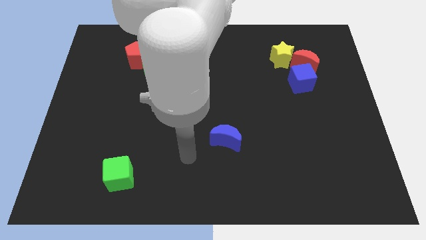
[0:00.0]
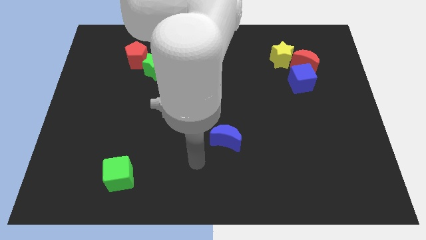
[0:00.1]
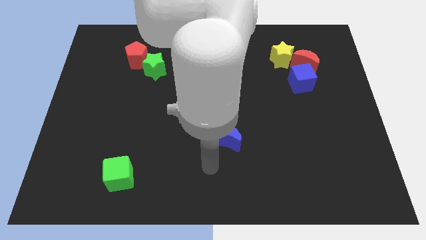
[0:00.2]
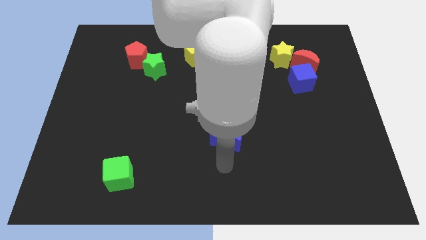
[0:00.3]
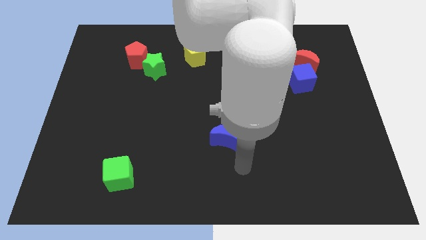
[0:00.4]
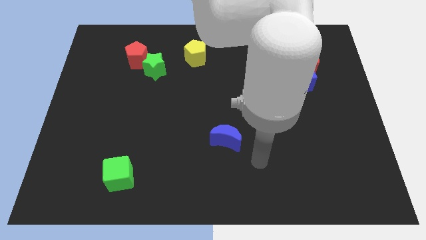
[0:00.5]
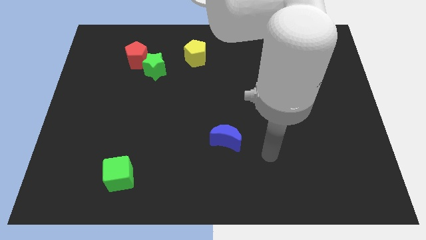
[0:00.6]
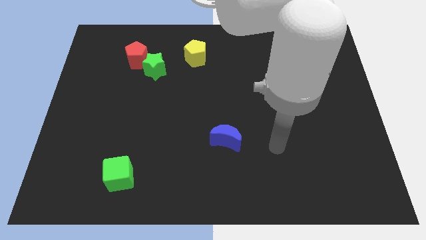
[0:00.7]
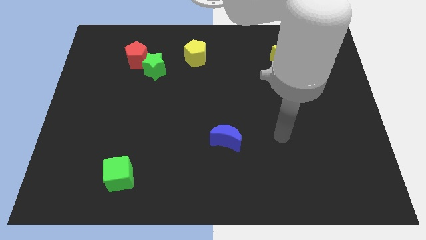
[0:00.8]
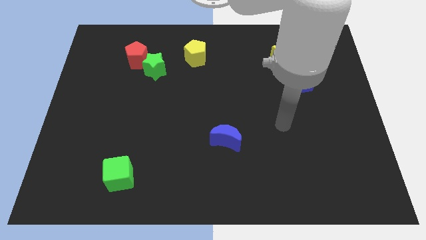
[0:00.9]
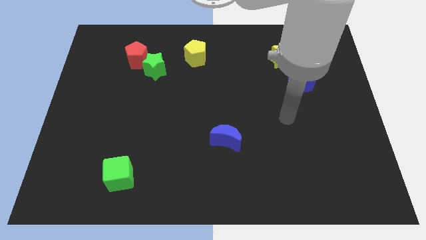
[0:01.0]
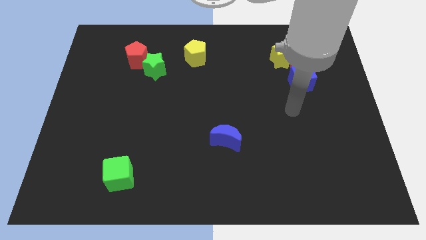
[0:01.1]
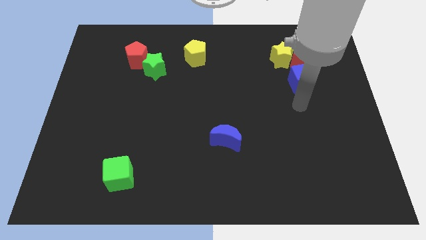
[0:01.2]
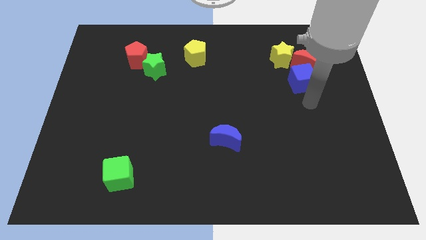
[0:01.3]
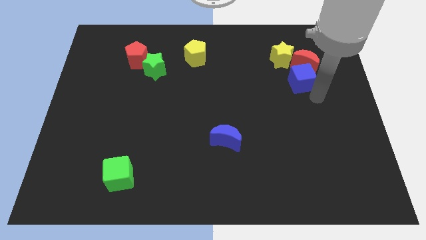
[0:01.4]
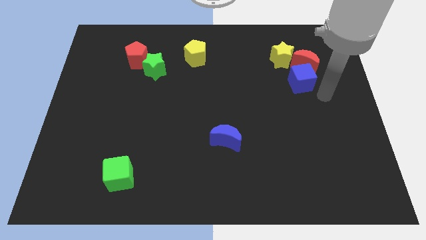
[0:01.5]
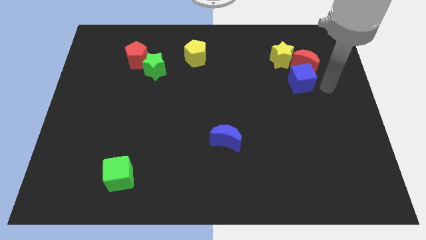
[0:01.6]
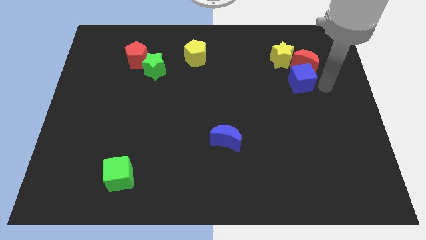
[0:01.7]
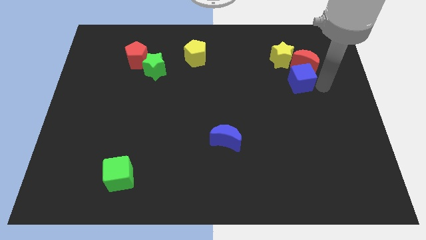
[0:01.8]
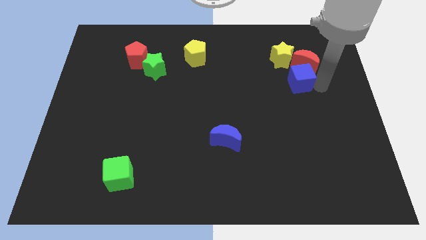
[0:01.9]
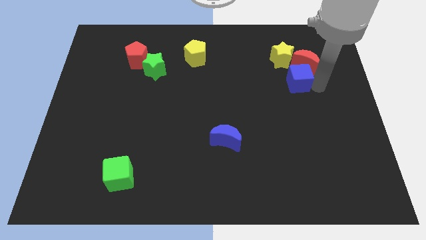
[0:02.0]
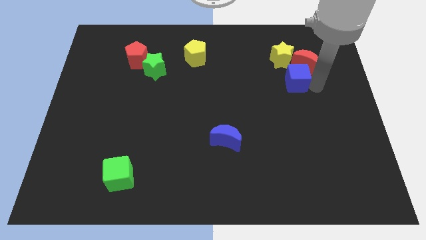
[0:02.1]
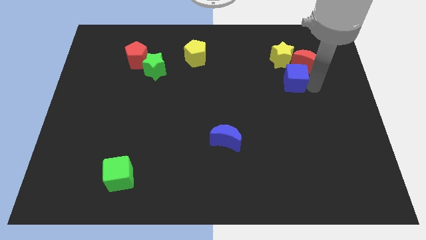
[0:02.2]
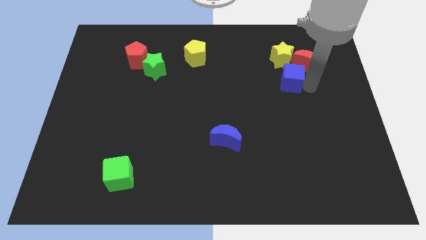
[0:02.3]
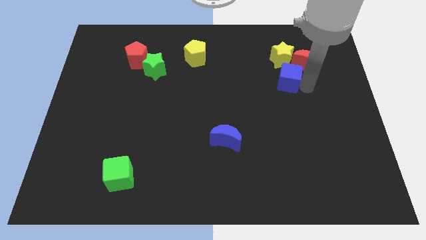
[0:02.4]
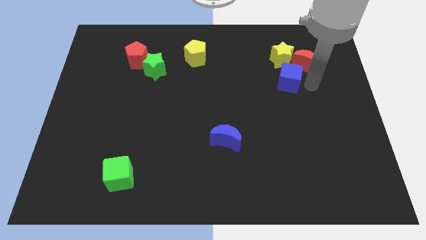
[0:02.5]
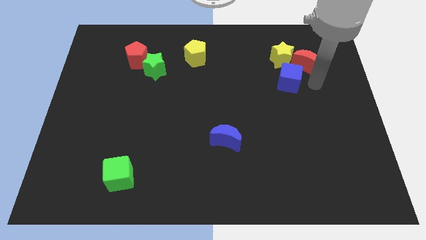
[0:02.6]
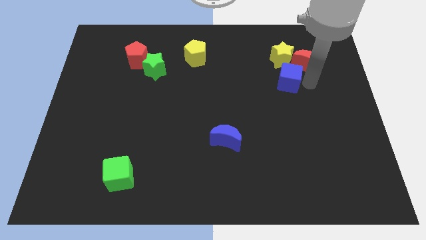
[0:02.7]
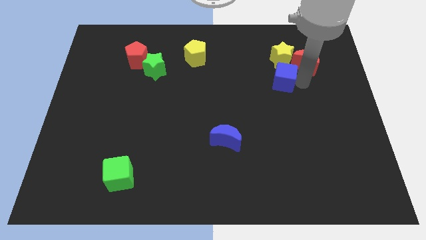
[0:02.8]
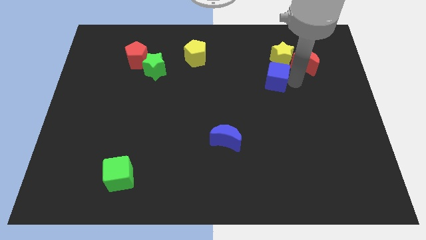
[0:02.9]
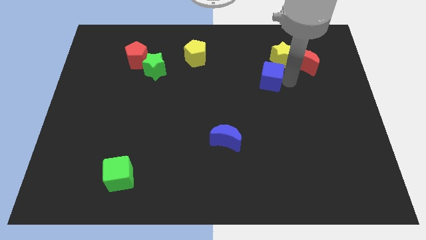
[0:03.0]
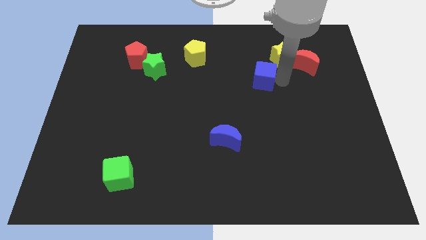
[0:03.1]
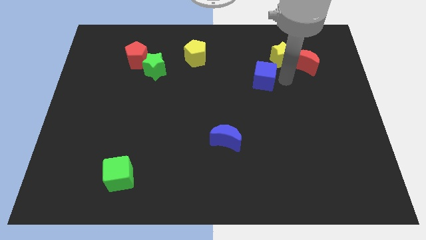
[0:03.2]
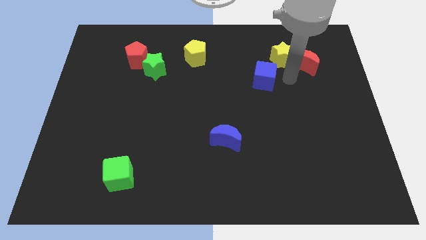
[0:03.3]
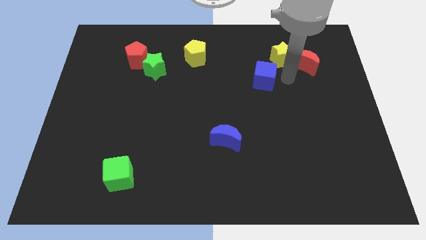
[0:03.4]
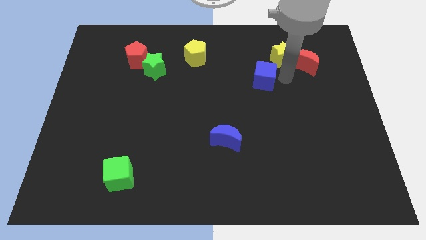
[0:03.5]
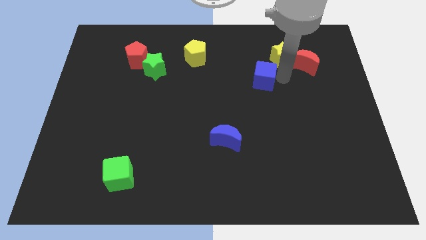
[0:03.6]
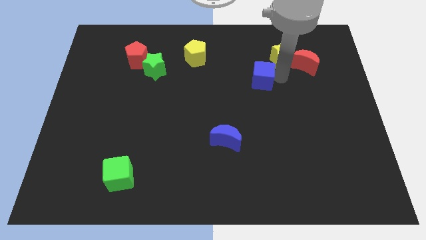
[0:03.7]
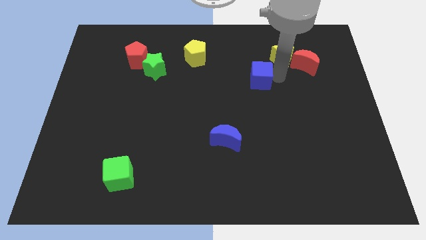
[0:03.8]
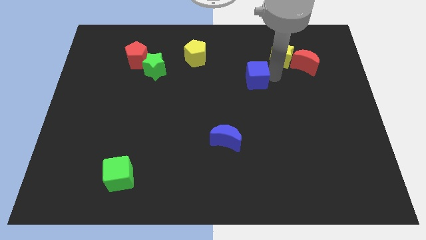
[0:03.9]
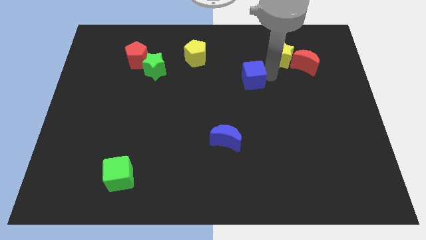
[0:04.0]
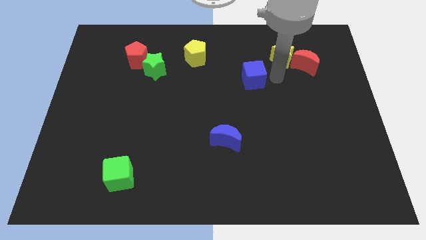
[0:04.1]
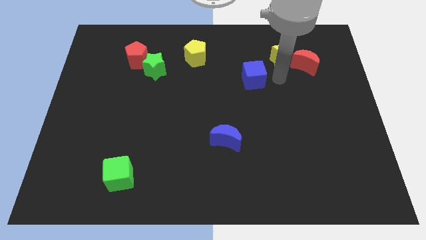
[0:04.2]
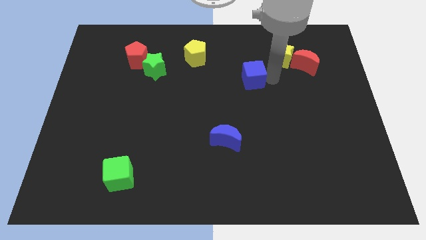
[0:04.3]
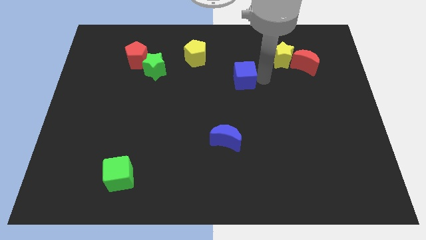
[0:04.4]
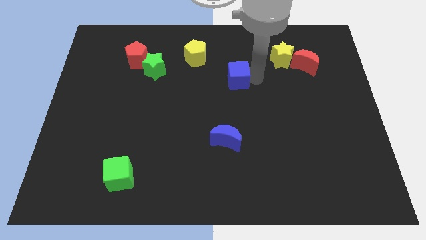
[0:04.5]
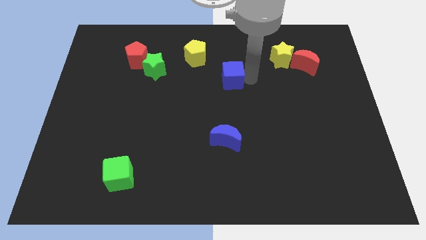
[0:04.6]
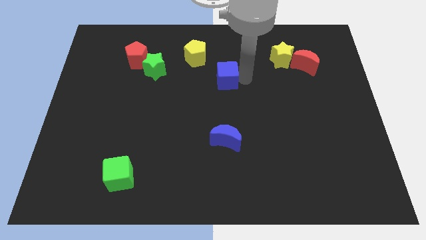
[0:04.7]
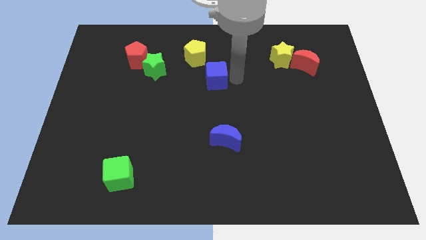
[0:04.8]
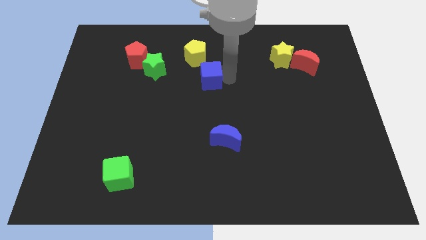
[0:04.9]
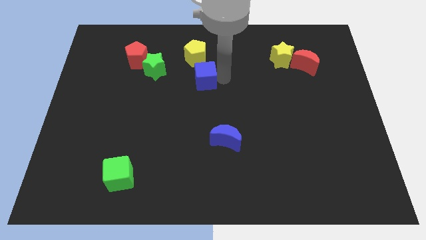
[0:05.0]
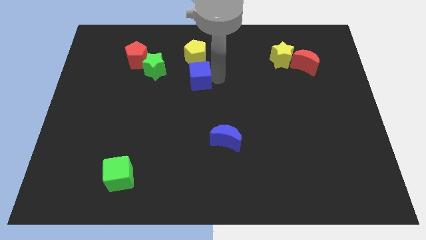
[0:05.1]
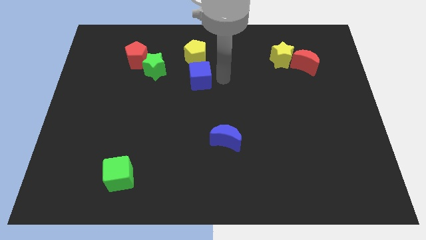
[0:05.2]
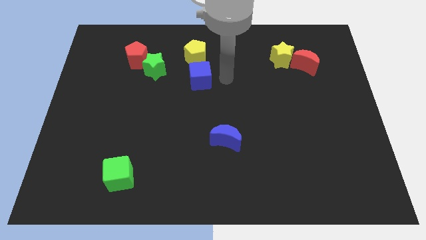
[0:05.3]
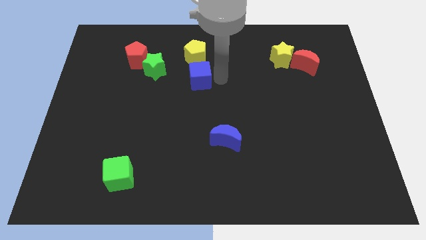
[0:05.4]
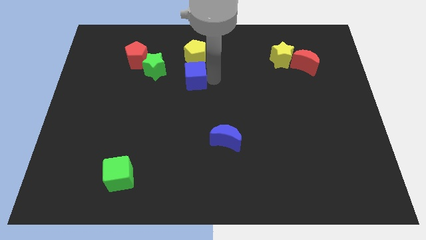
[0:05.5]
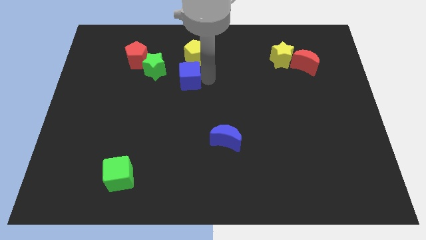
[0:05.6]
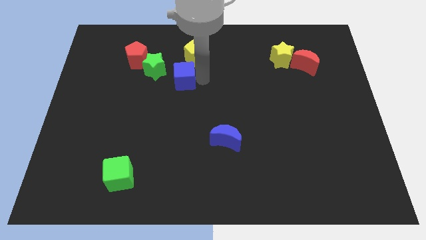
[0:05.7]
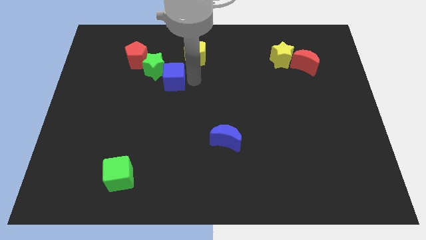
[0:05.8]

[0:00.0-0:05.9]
push the blue cube to the bottom right side of the red pentagon
